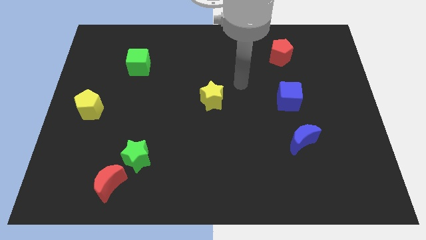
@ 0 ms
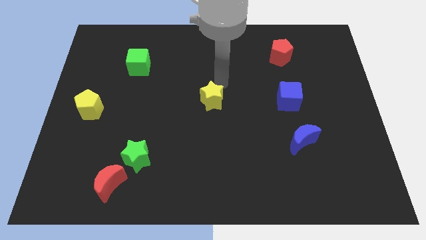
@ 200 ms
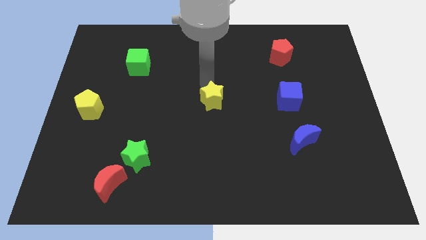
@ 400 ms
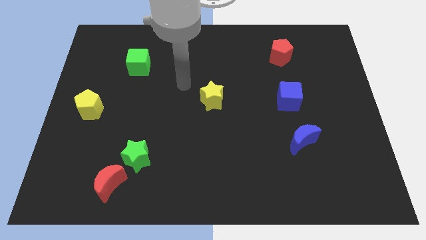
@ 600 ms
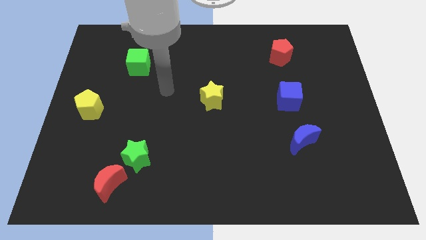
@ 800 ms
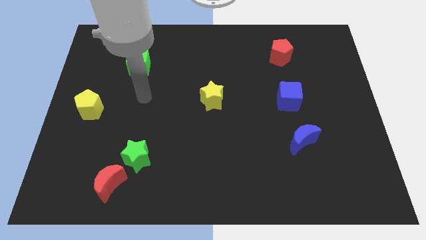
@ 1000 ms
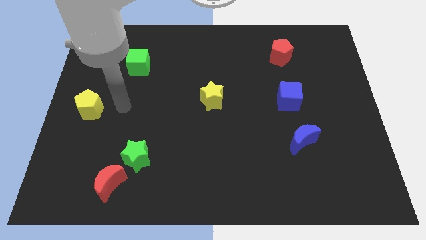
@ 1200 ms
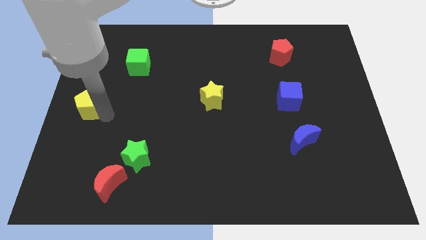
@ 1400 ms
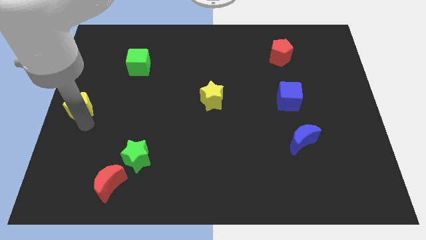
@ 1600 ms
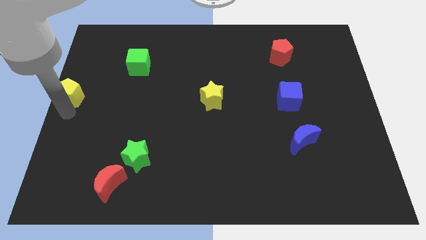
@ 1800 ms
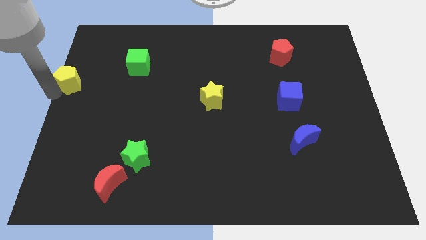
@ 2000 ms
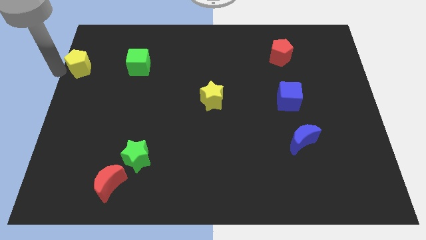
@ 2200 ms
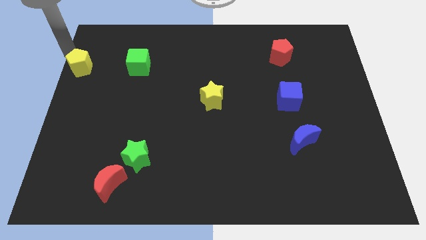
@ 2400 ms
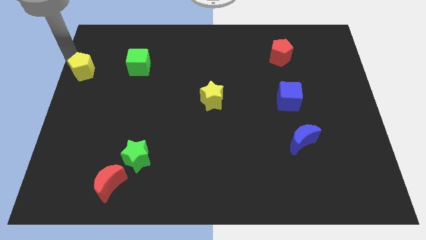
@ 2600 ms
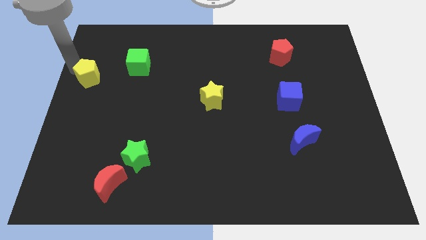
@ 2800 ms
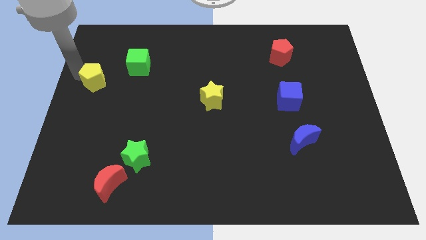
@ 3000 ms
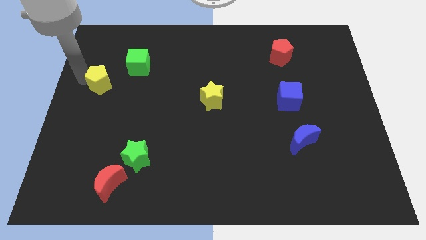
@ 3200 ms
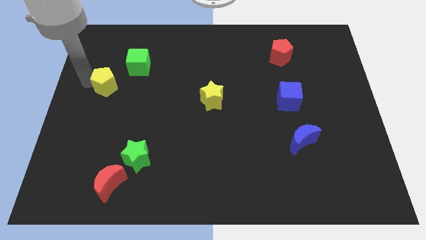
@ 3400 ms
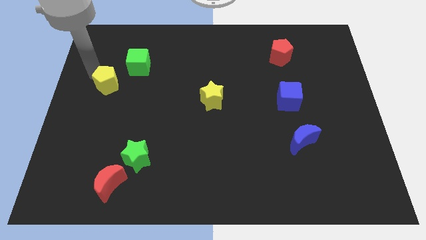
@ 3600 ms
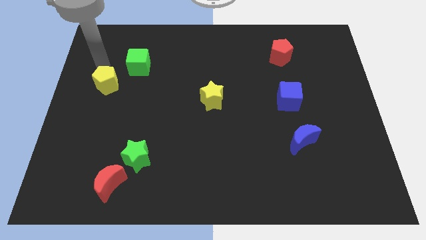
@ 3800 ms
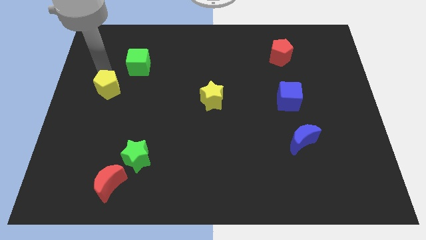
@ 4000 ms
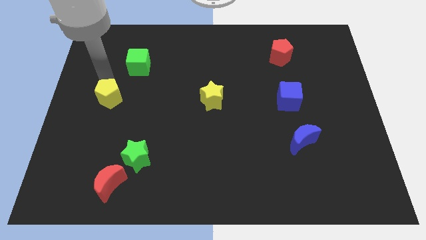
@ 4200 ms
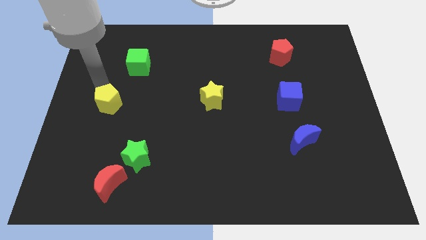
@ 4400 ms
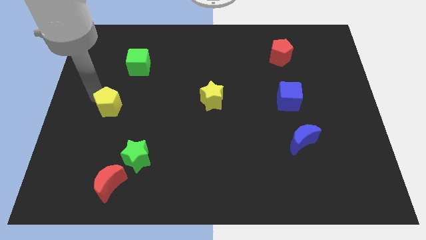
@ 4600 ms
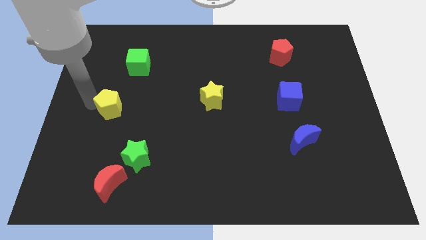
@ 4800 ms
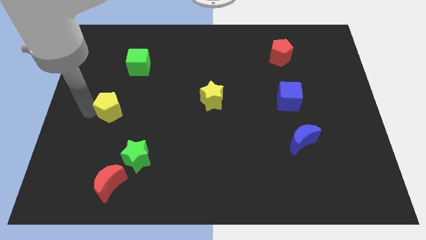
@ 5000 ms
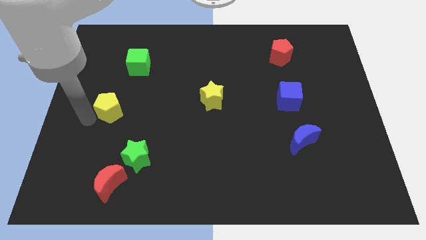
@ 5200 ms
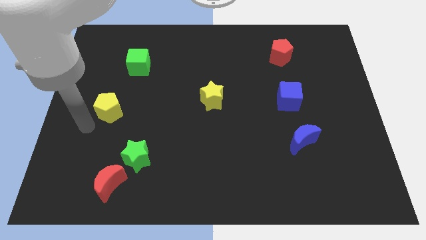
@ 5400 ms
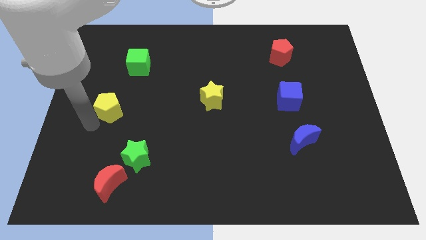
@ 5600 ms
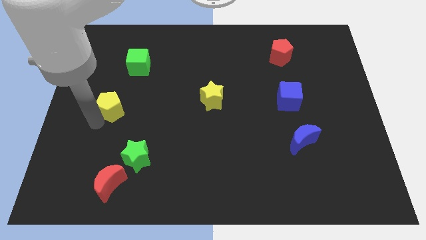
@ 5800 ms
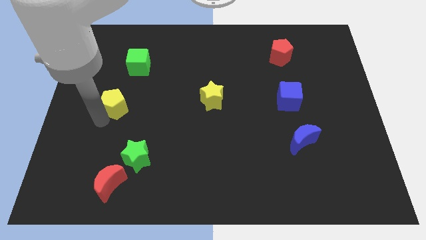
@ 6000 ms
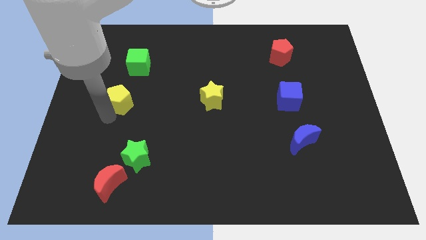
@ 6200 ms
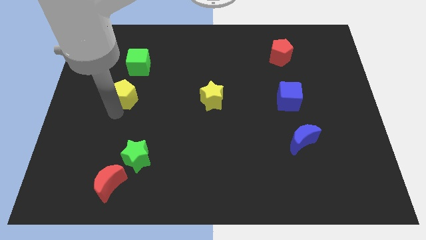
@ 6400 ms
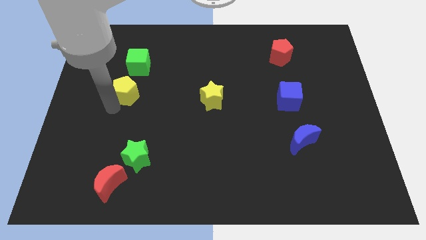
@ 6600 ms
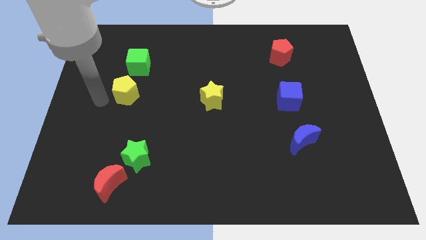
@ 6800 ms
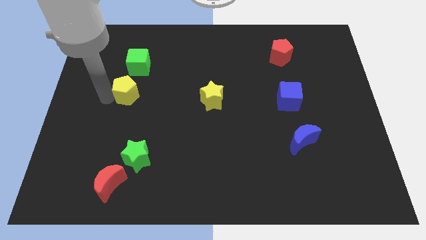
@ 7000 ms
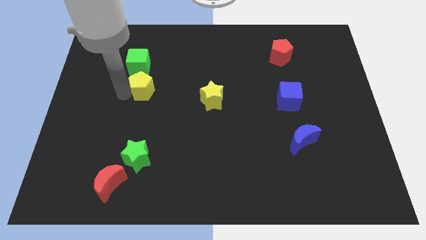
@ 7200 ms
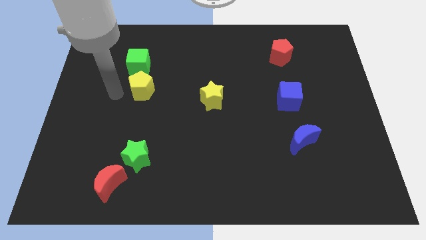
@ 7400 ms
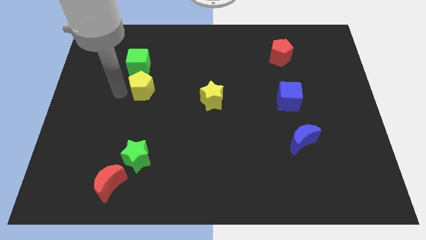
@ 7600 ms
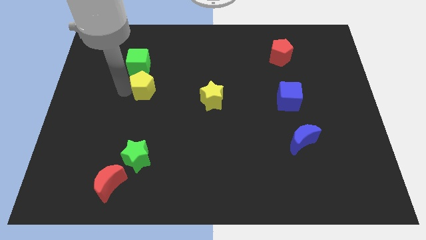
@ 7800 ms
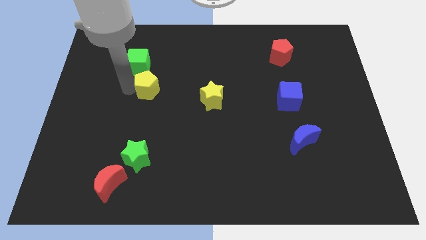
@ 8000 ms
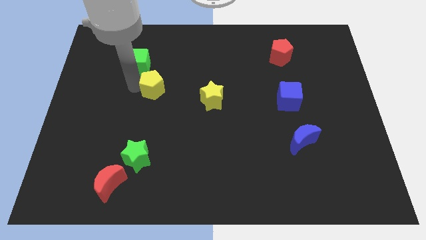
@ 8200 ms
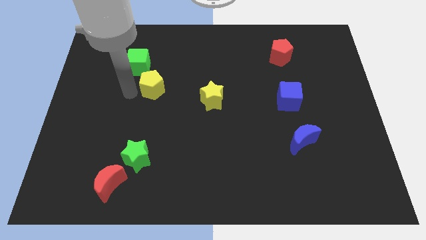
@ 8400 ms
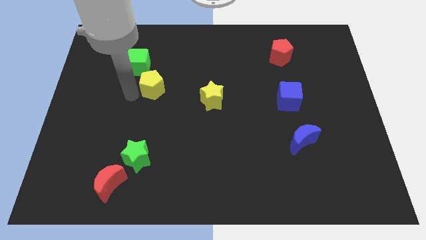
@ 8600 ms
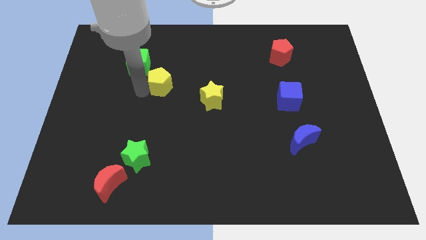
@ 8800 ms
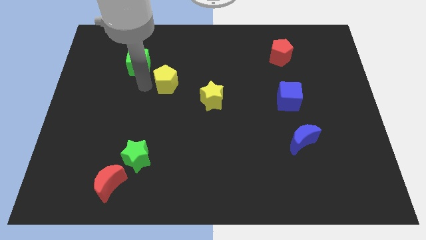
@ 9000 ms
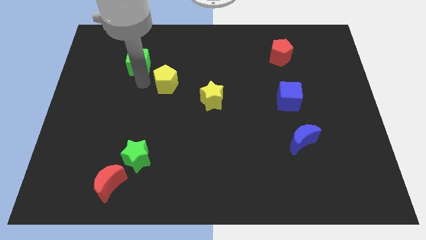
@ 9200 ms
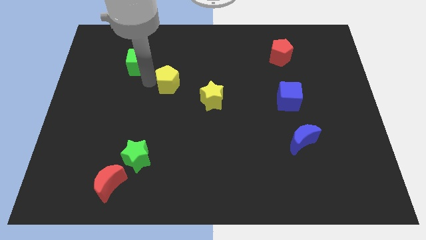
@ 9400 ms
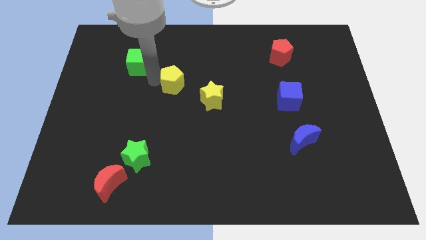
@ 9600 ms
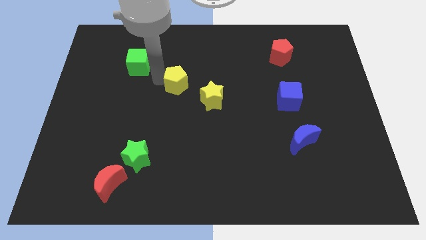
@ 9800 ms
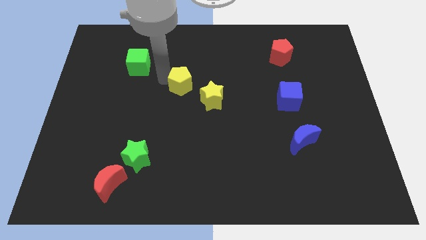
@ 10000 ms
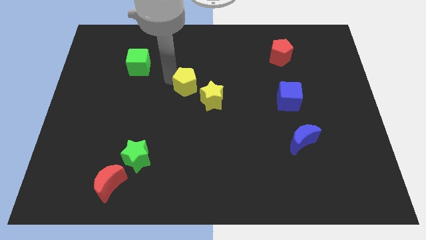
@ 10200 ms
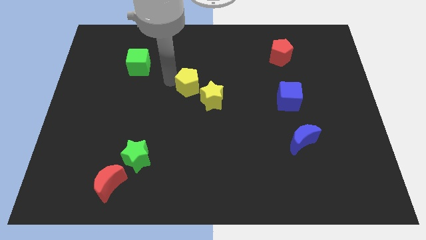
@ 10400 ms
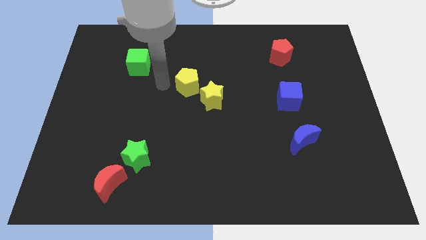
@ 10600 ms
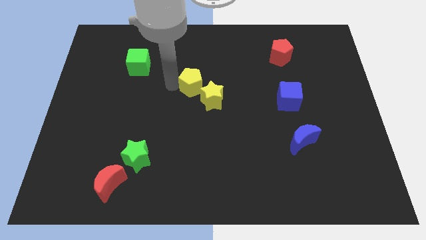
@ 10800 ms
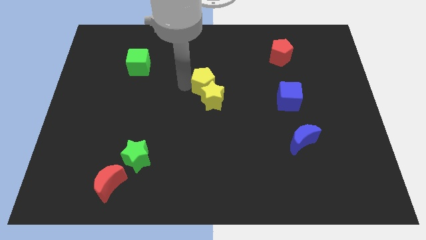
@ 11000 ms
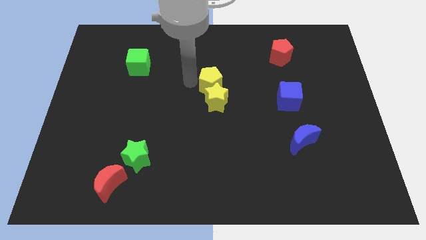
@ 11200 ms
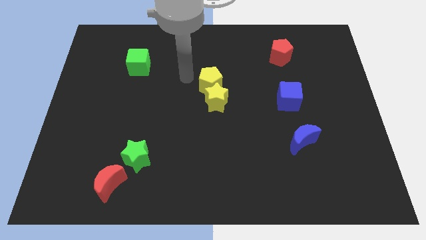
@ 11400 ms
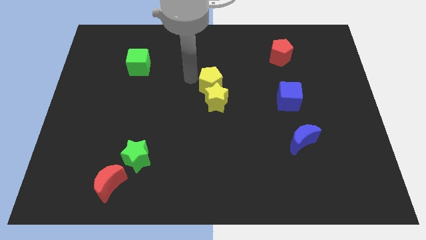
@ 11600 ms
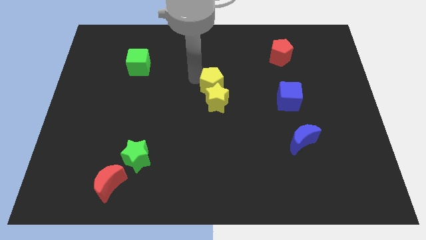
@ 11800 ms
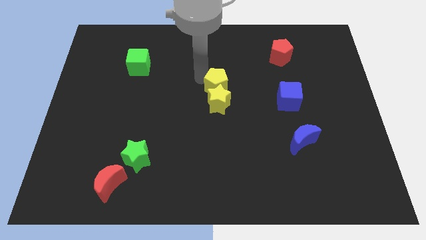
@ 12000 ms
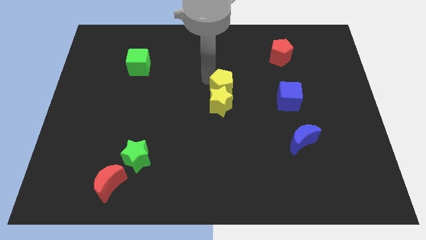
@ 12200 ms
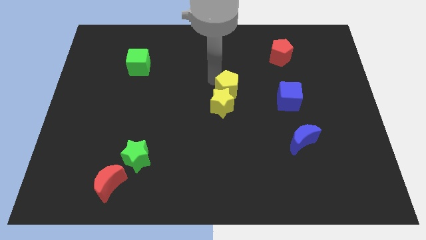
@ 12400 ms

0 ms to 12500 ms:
push the yellow pentagon just left of the blue cube
